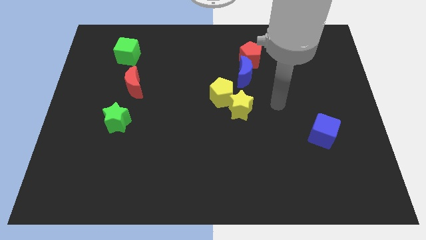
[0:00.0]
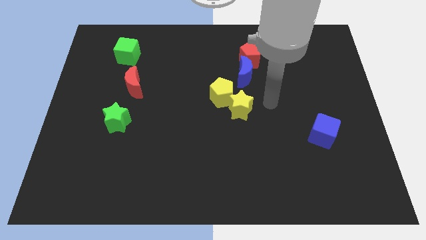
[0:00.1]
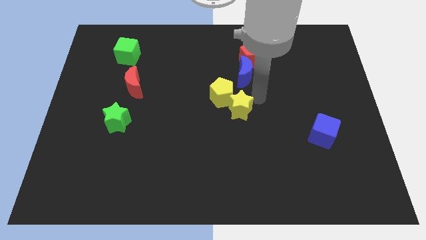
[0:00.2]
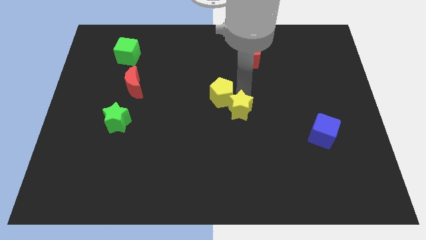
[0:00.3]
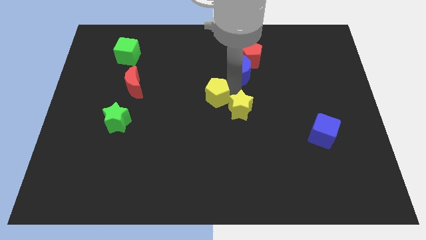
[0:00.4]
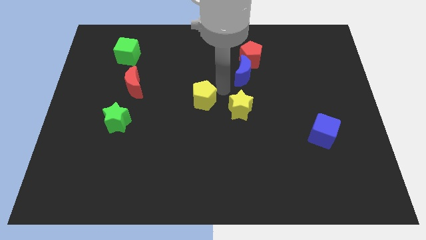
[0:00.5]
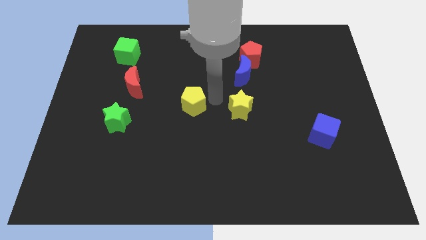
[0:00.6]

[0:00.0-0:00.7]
separate the yellow star from the yellow pentagon

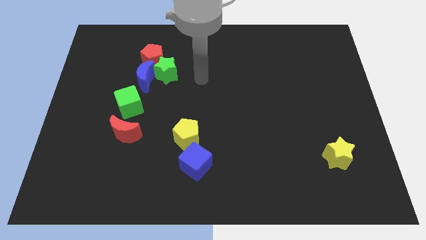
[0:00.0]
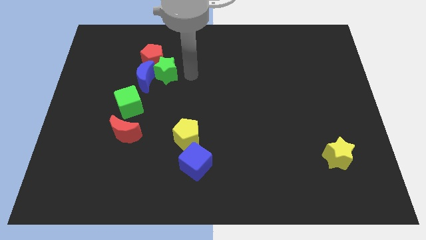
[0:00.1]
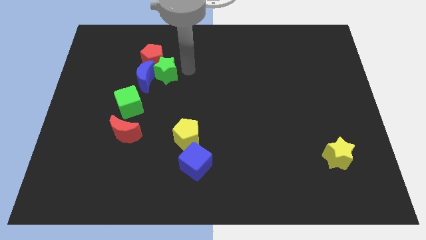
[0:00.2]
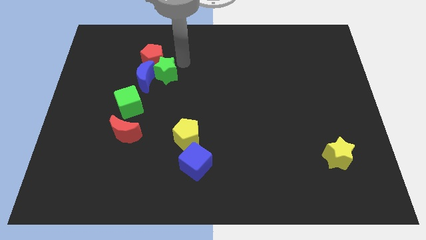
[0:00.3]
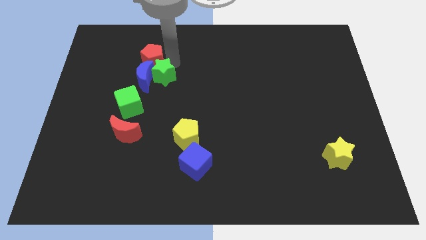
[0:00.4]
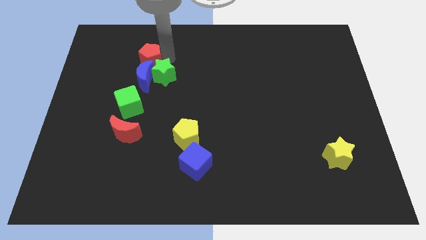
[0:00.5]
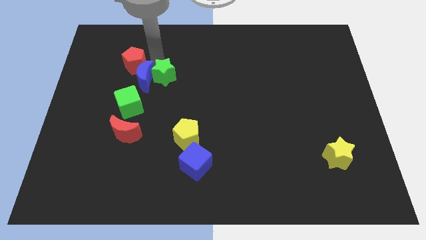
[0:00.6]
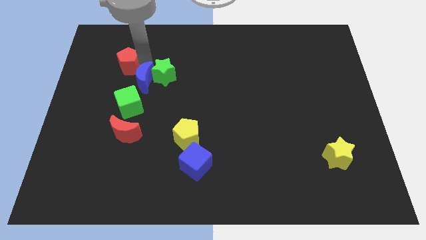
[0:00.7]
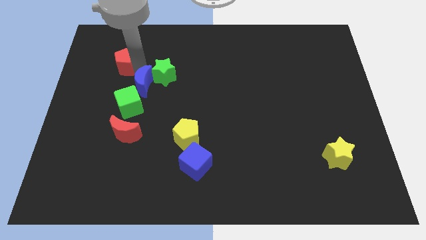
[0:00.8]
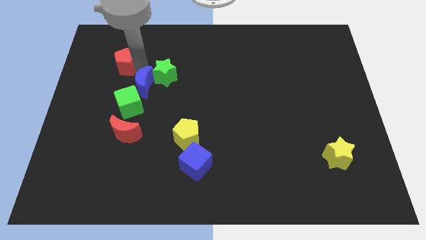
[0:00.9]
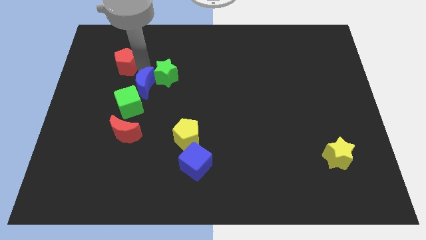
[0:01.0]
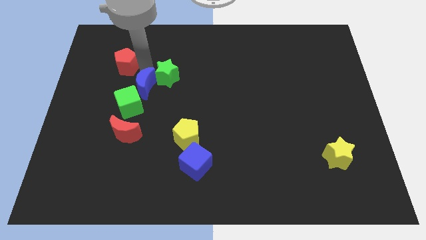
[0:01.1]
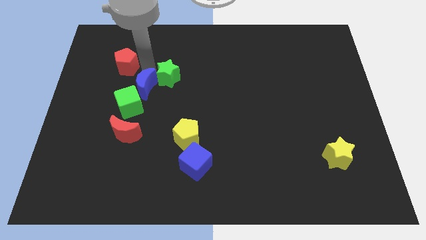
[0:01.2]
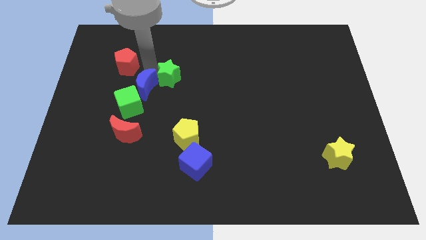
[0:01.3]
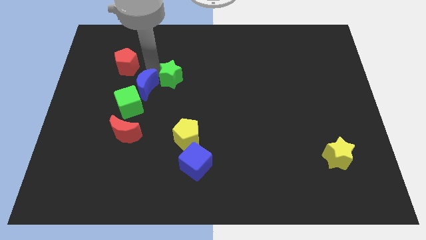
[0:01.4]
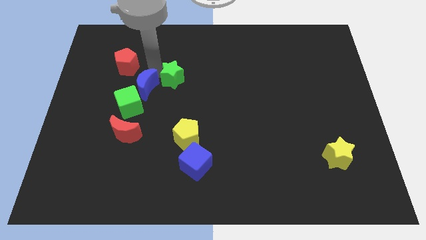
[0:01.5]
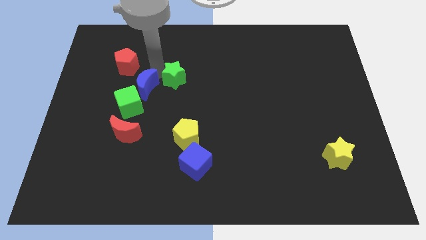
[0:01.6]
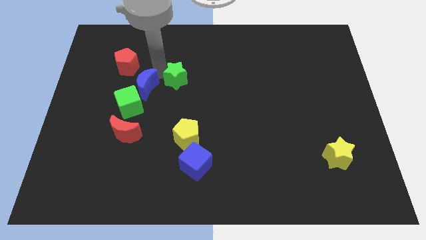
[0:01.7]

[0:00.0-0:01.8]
separate the green star from the blue moon and red pentagon

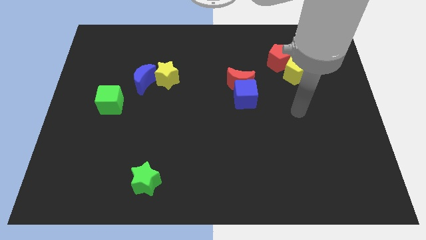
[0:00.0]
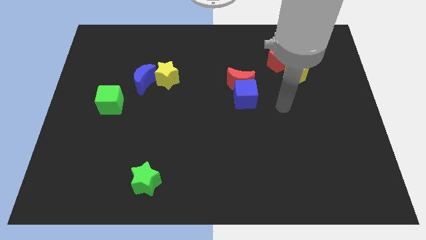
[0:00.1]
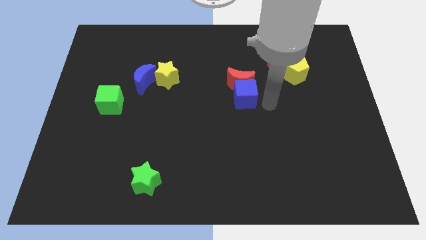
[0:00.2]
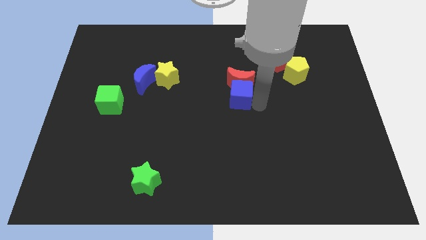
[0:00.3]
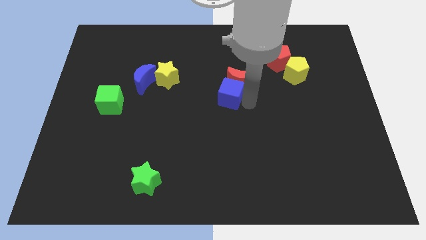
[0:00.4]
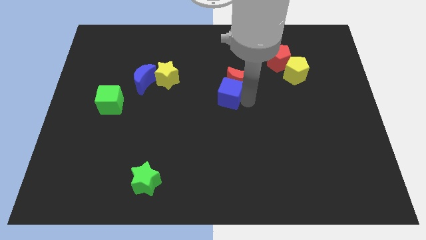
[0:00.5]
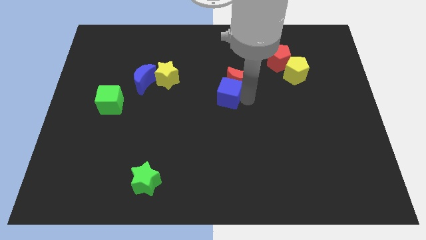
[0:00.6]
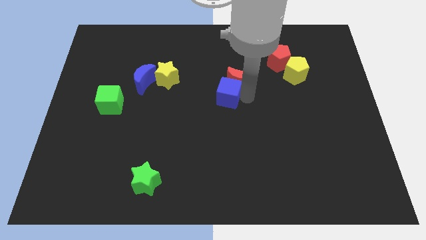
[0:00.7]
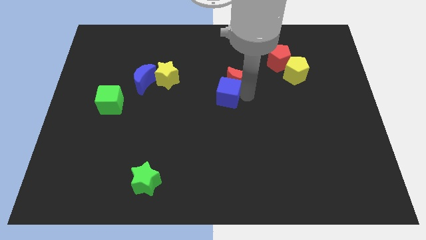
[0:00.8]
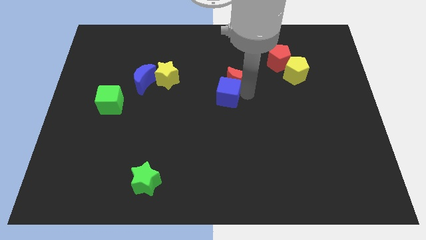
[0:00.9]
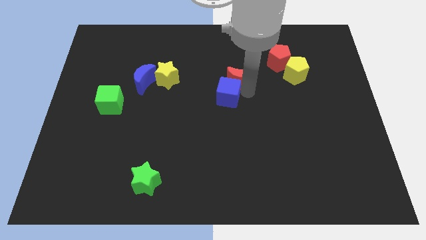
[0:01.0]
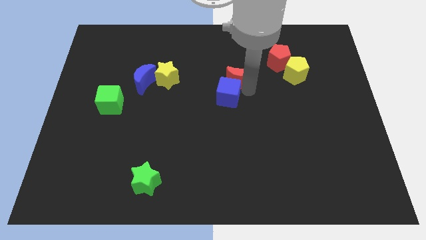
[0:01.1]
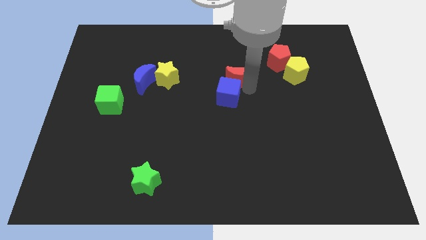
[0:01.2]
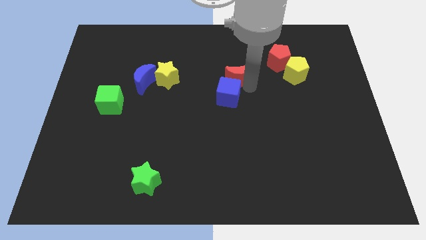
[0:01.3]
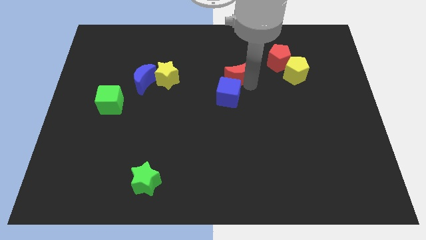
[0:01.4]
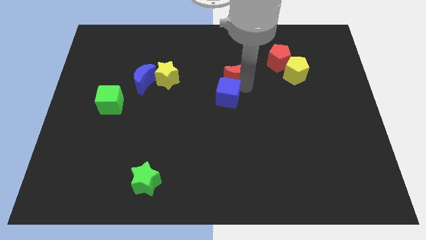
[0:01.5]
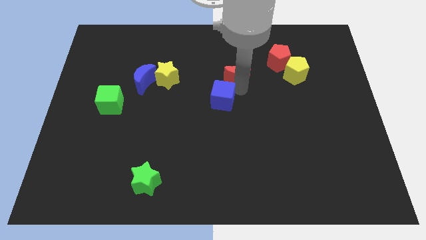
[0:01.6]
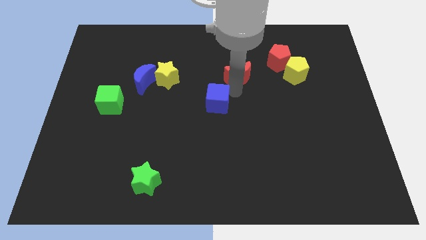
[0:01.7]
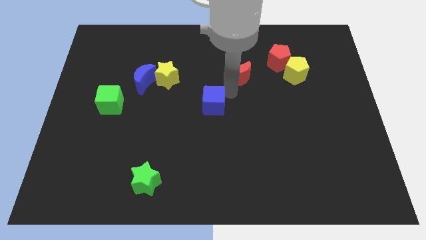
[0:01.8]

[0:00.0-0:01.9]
separate the red moon from the blue cube

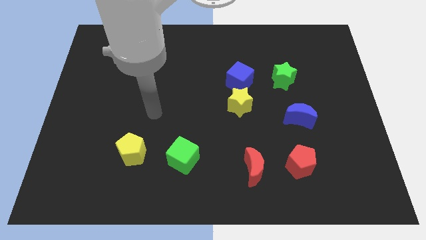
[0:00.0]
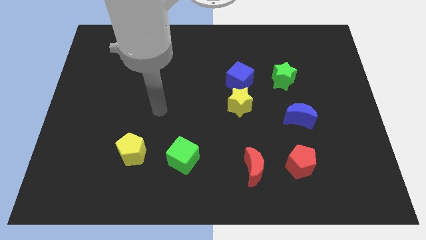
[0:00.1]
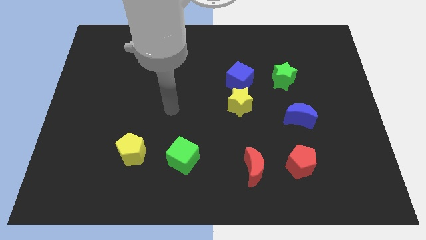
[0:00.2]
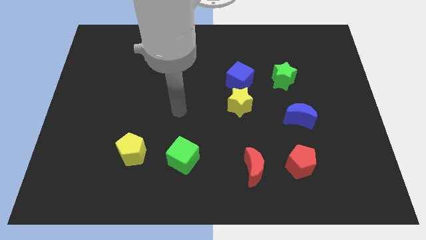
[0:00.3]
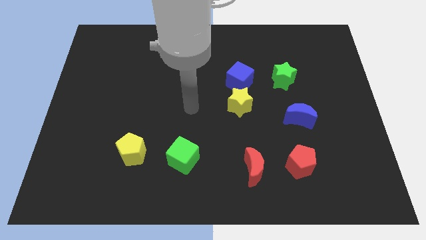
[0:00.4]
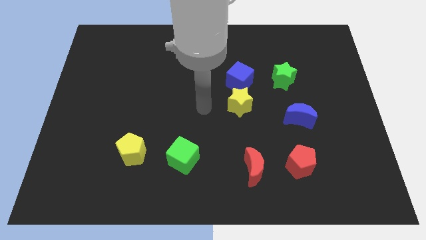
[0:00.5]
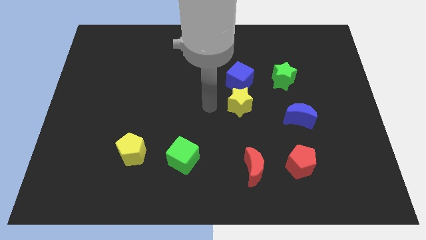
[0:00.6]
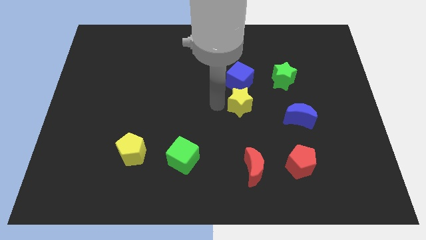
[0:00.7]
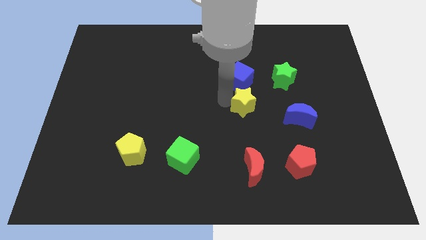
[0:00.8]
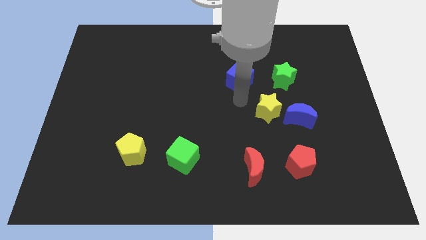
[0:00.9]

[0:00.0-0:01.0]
move the blue cube away from the yellow star

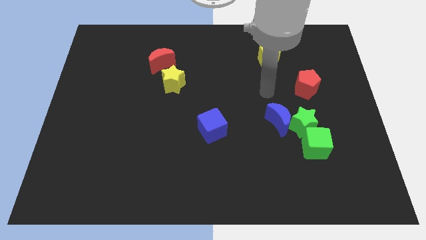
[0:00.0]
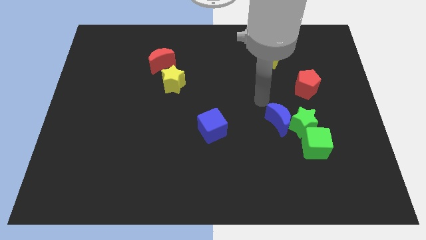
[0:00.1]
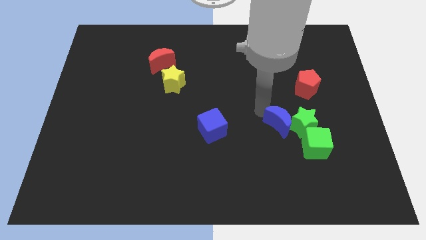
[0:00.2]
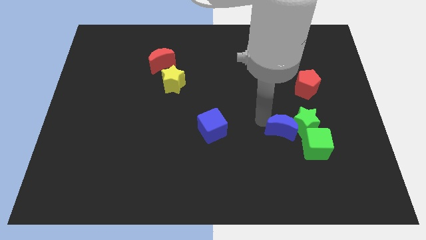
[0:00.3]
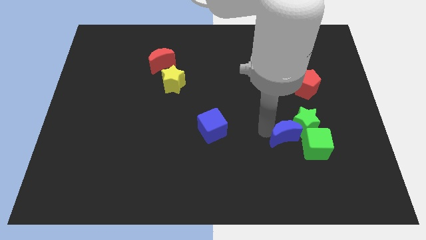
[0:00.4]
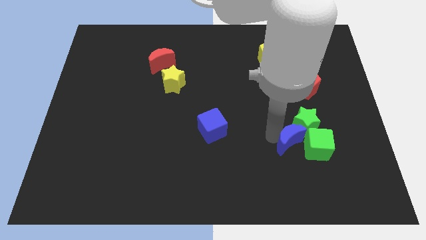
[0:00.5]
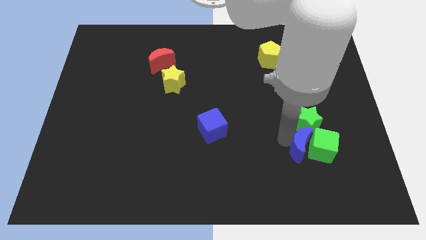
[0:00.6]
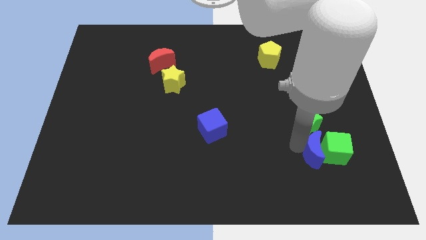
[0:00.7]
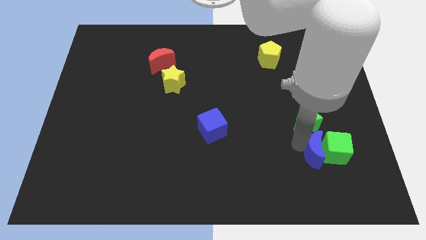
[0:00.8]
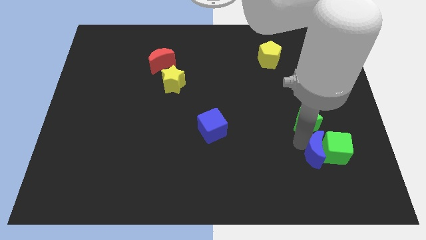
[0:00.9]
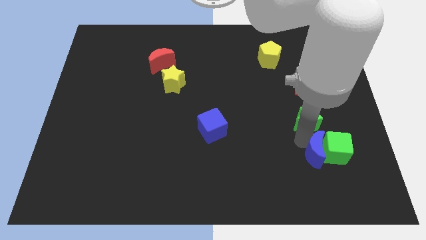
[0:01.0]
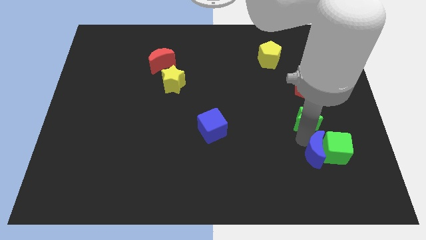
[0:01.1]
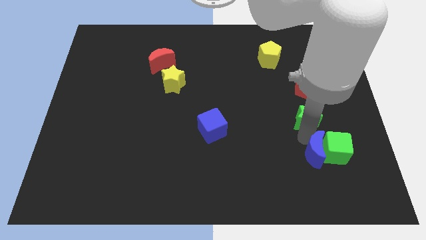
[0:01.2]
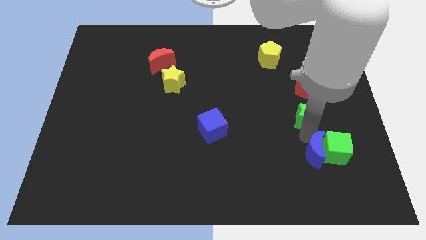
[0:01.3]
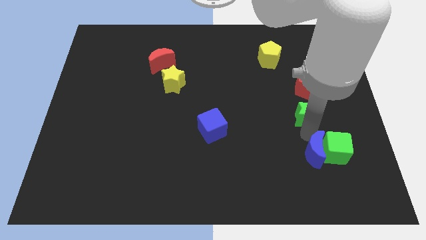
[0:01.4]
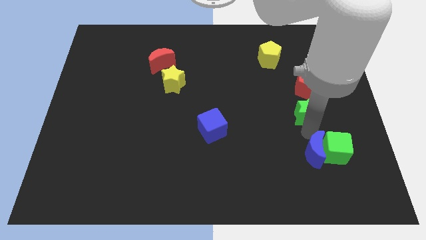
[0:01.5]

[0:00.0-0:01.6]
pull the green star apart from the blue moon and green cube

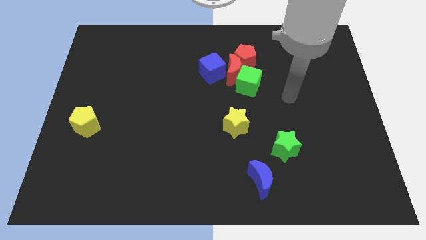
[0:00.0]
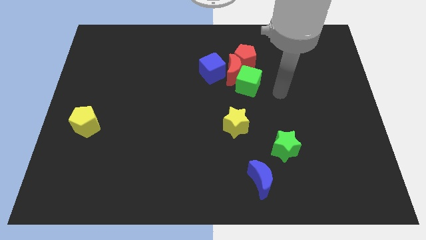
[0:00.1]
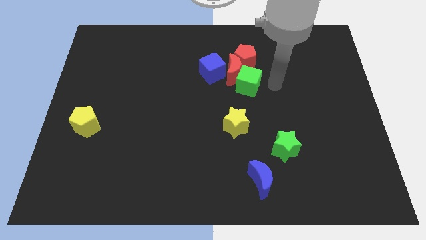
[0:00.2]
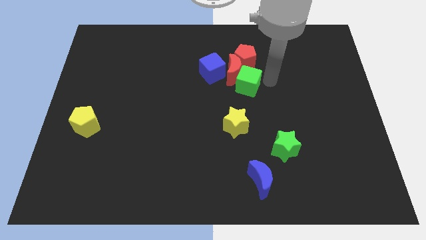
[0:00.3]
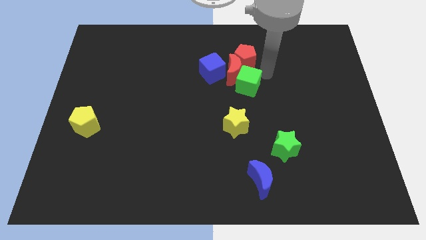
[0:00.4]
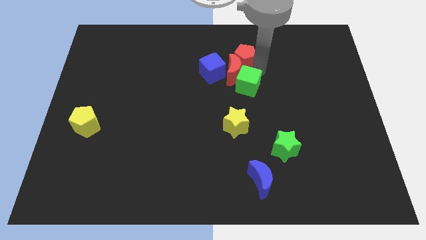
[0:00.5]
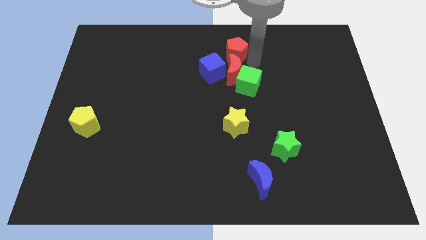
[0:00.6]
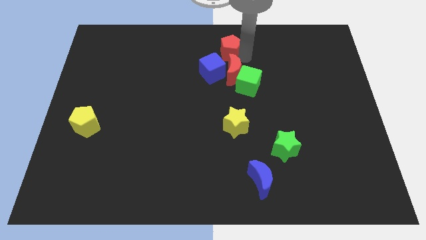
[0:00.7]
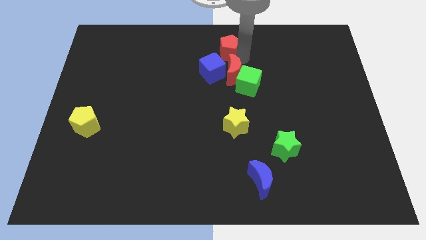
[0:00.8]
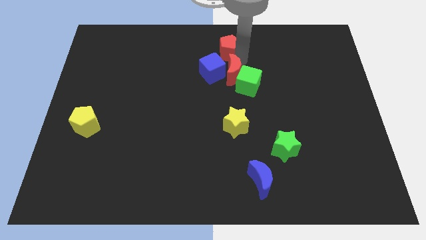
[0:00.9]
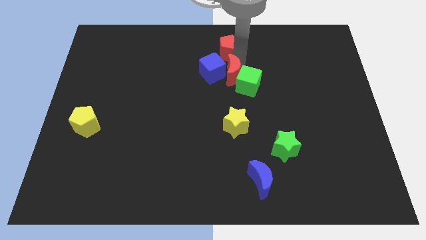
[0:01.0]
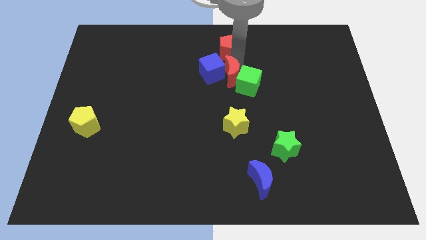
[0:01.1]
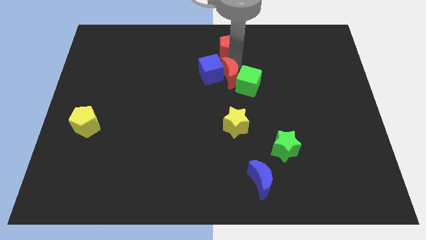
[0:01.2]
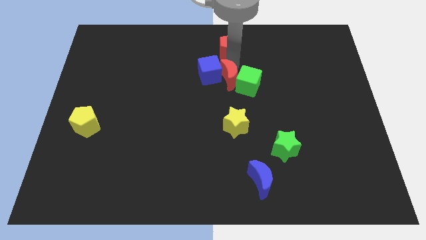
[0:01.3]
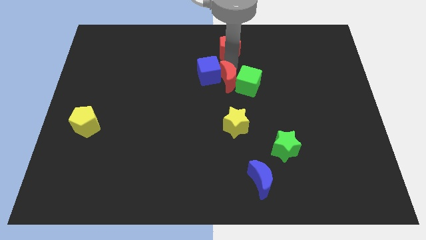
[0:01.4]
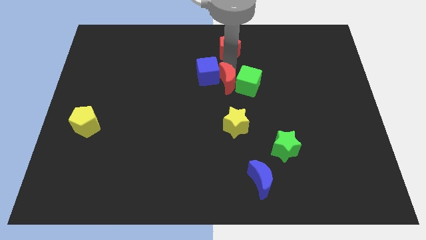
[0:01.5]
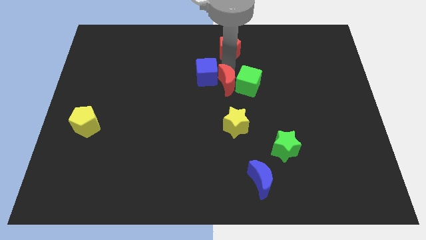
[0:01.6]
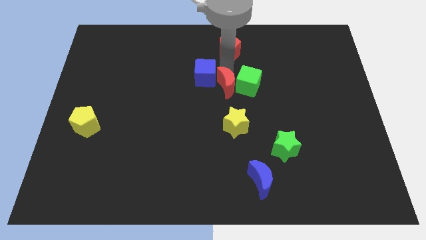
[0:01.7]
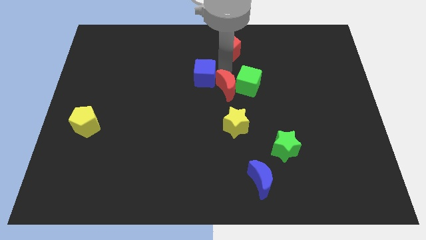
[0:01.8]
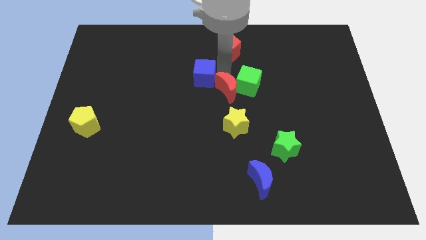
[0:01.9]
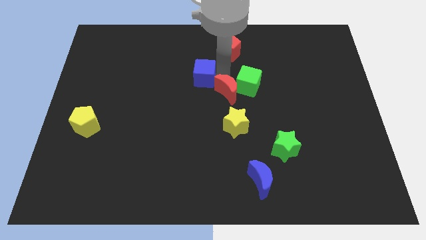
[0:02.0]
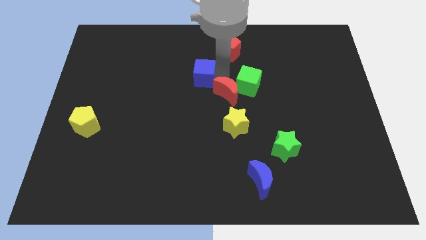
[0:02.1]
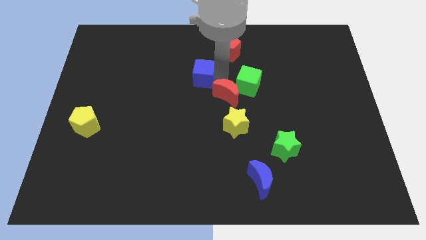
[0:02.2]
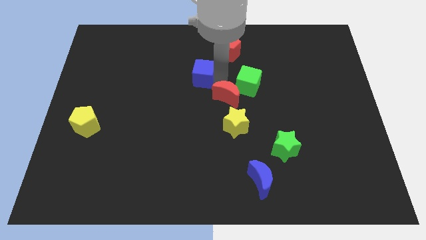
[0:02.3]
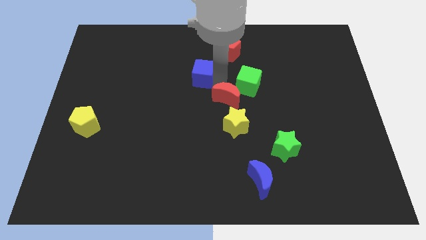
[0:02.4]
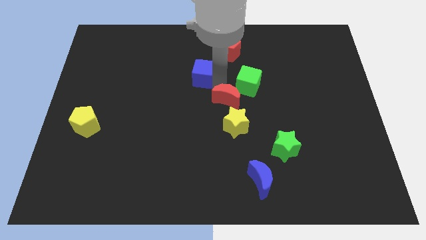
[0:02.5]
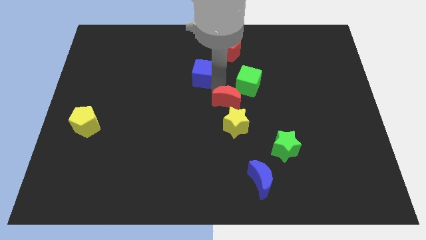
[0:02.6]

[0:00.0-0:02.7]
move the red moon away from the group
